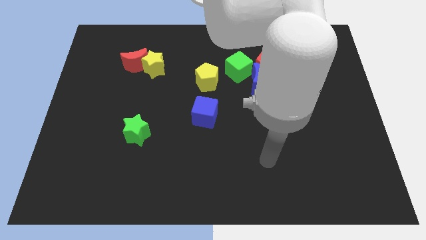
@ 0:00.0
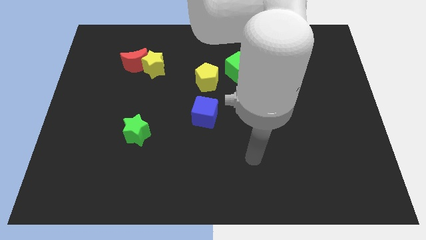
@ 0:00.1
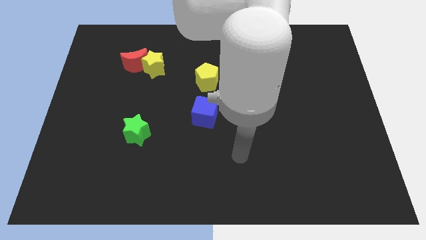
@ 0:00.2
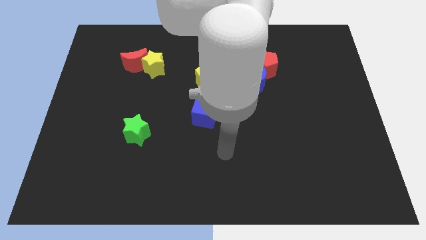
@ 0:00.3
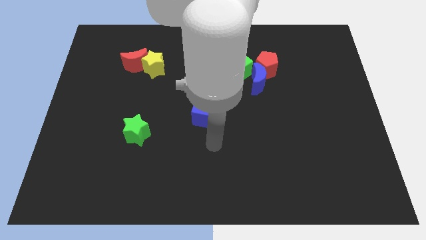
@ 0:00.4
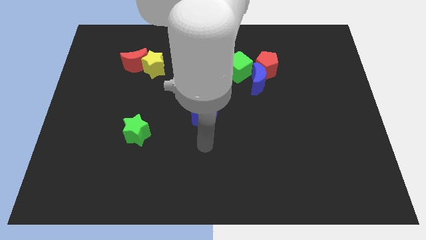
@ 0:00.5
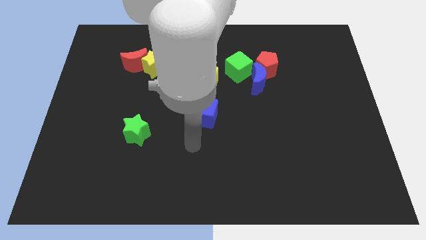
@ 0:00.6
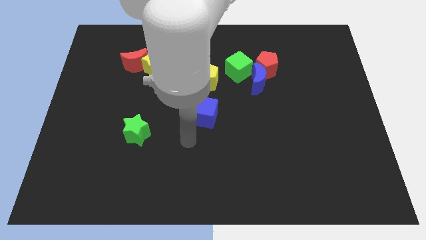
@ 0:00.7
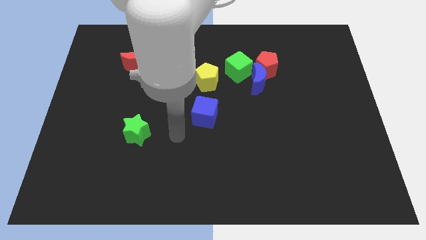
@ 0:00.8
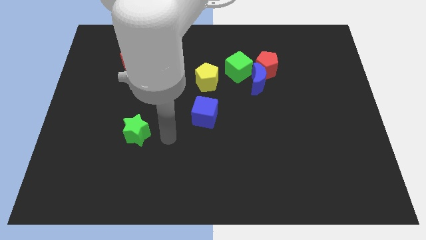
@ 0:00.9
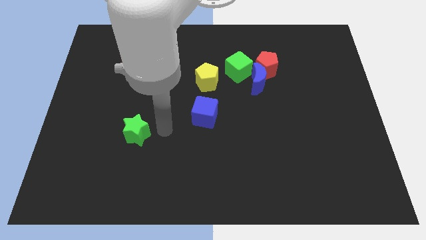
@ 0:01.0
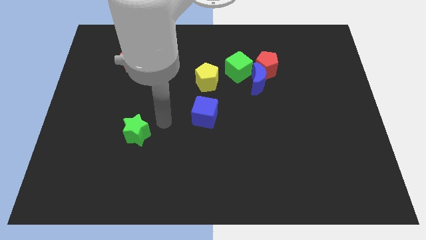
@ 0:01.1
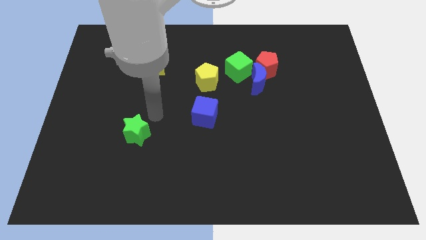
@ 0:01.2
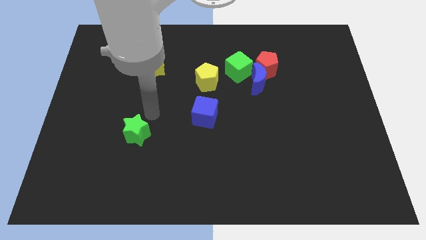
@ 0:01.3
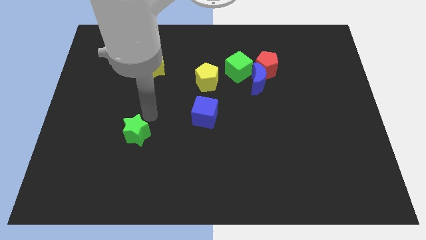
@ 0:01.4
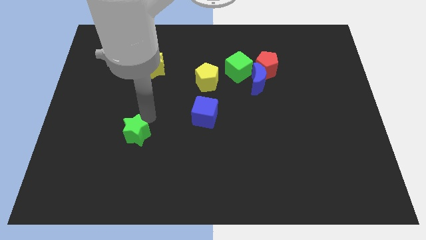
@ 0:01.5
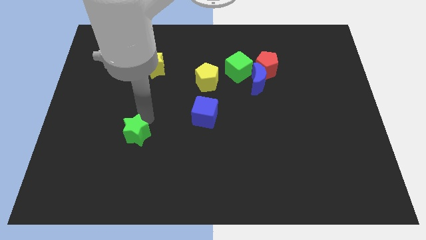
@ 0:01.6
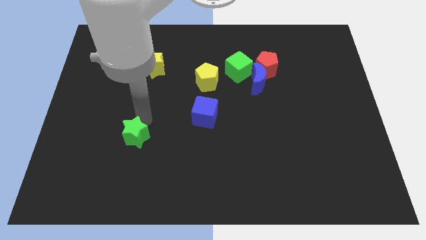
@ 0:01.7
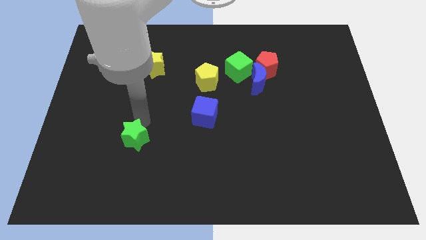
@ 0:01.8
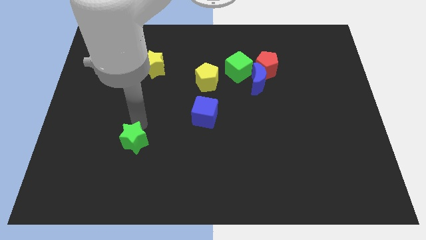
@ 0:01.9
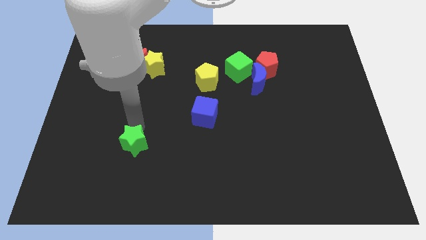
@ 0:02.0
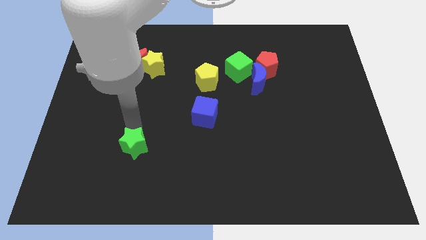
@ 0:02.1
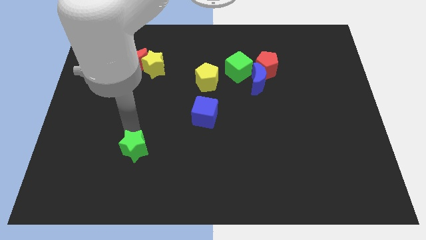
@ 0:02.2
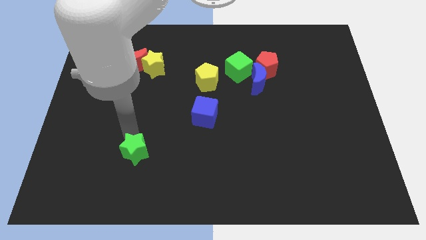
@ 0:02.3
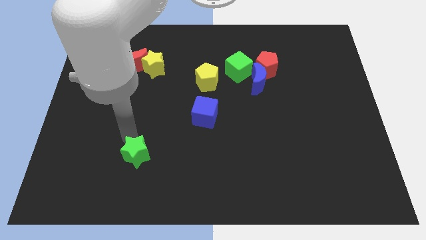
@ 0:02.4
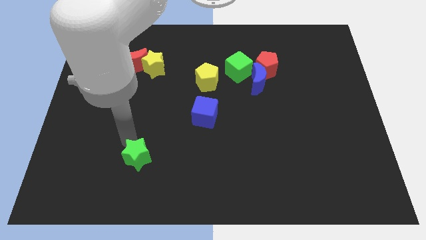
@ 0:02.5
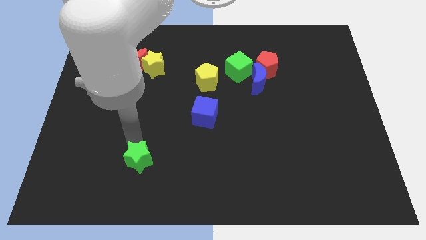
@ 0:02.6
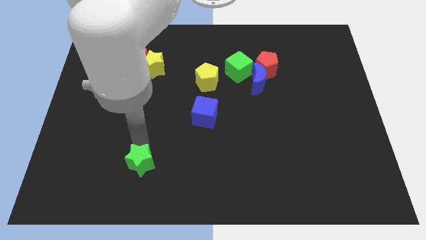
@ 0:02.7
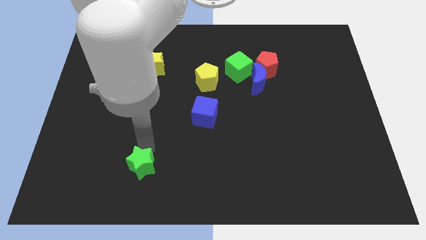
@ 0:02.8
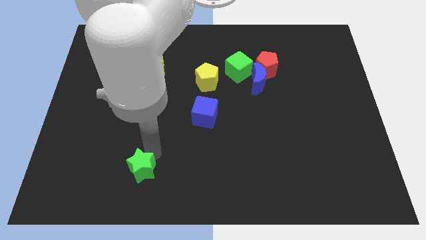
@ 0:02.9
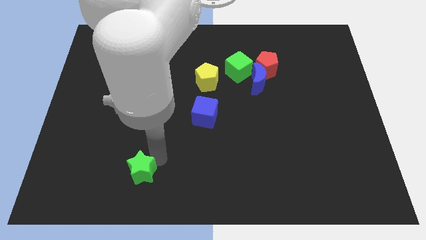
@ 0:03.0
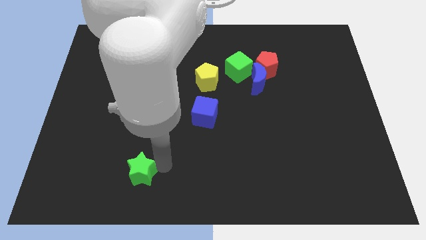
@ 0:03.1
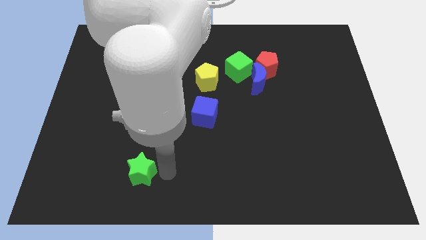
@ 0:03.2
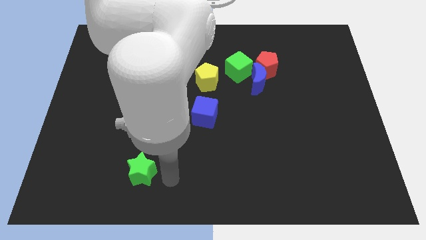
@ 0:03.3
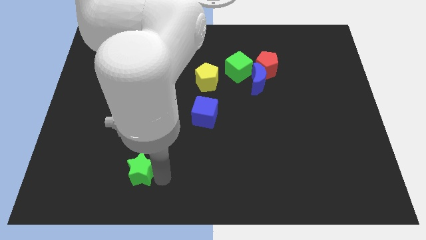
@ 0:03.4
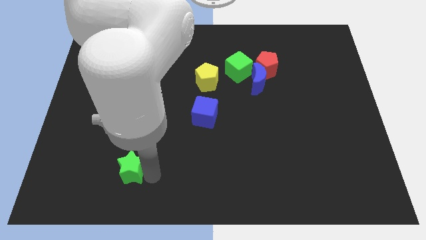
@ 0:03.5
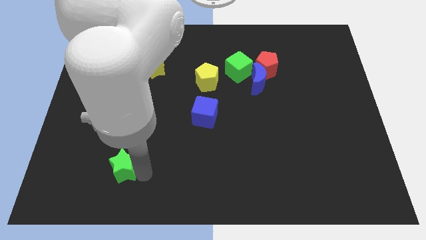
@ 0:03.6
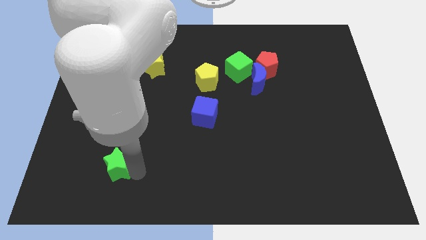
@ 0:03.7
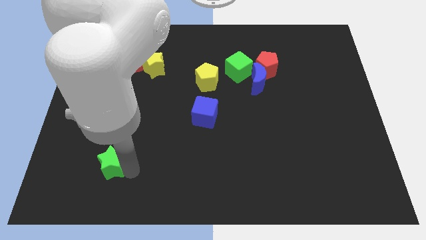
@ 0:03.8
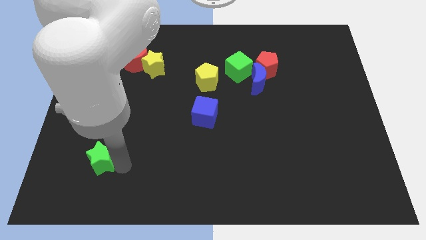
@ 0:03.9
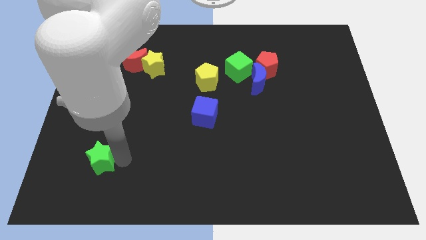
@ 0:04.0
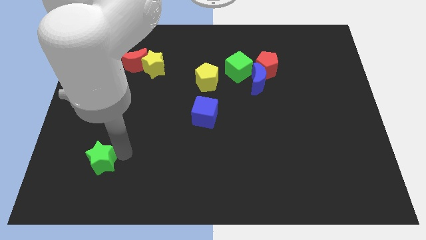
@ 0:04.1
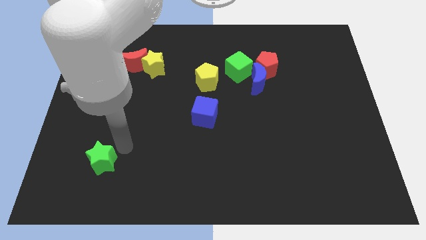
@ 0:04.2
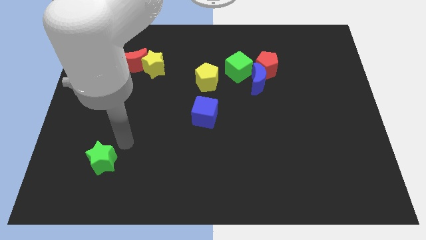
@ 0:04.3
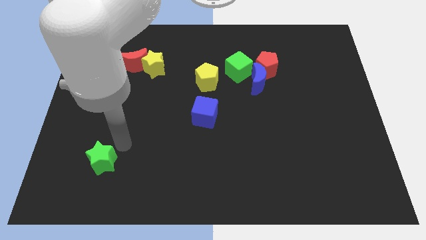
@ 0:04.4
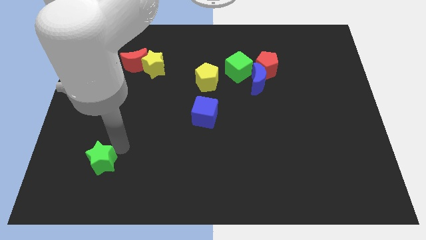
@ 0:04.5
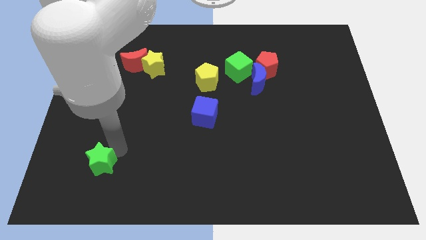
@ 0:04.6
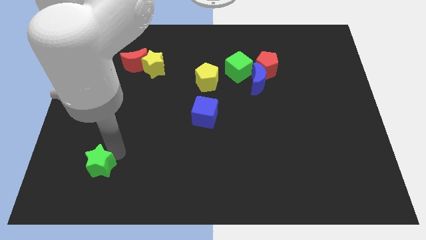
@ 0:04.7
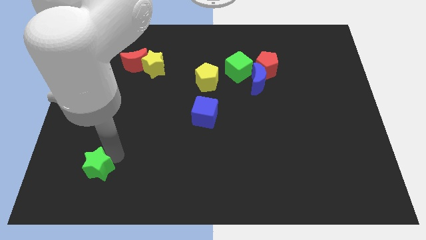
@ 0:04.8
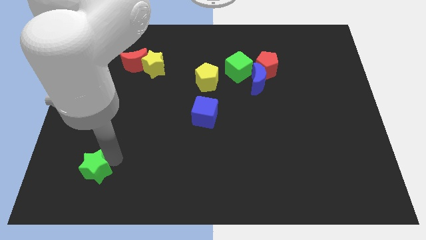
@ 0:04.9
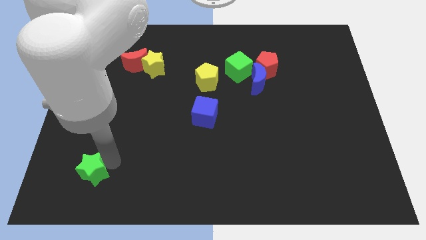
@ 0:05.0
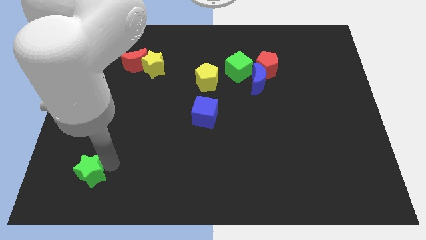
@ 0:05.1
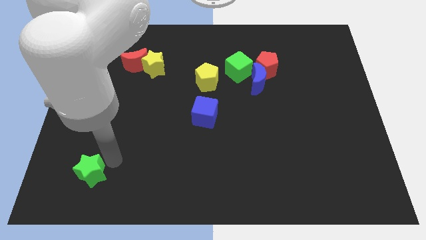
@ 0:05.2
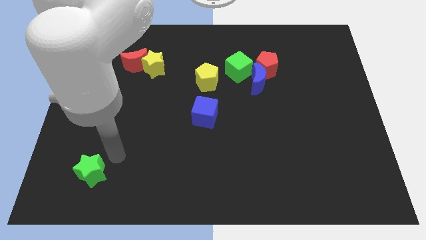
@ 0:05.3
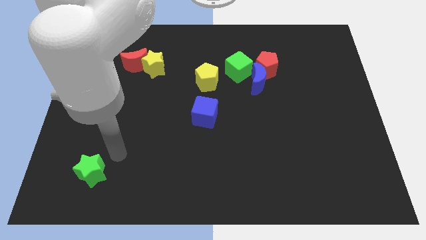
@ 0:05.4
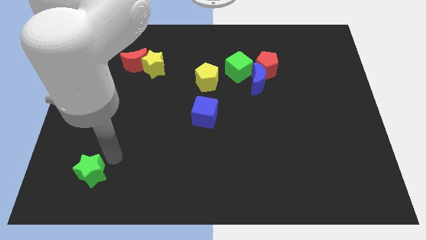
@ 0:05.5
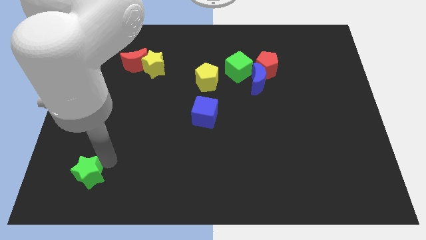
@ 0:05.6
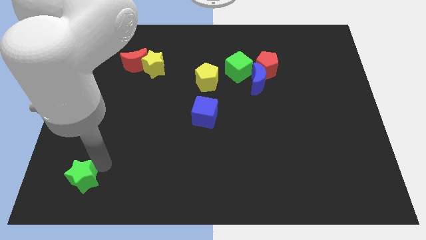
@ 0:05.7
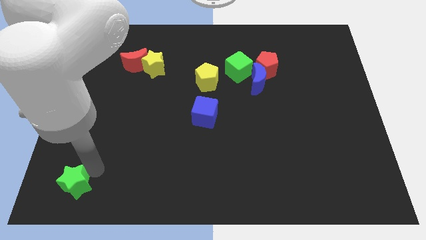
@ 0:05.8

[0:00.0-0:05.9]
push the green star to the bottom left

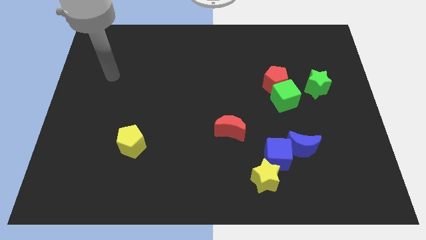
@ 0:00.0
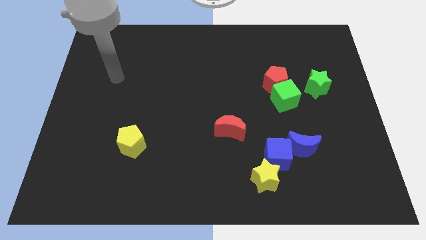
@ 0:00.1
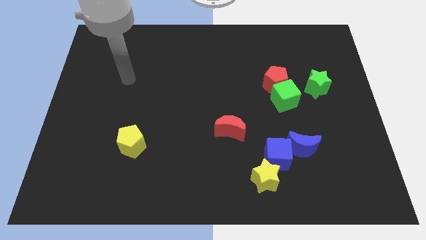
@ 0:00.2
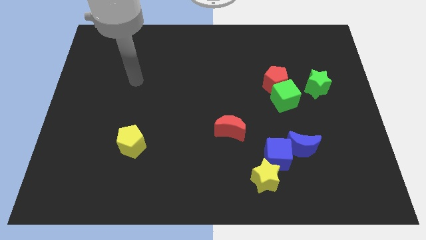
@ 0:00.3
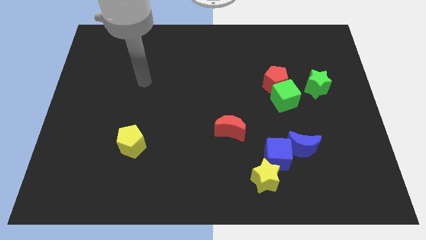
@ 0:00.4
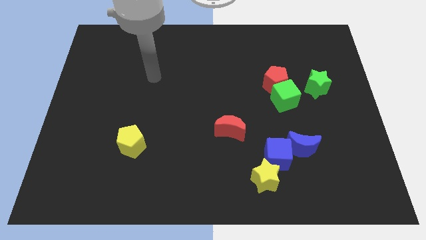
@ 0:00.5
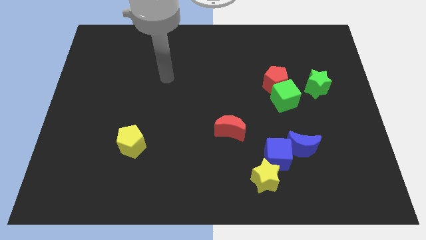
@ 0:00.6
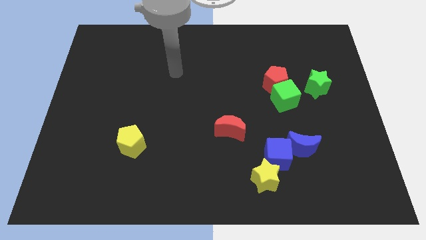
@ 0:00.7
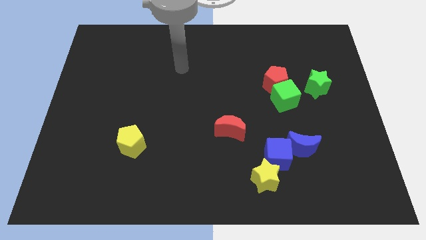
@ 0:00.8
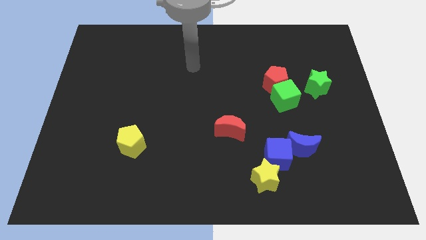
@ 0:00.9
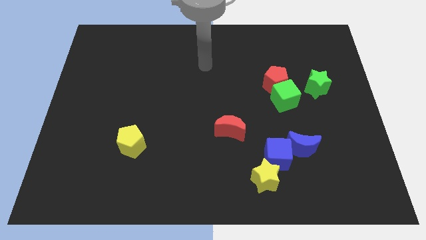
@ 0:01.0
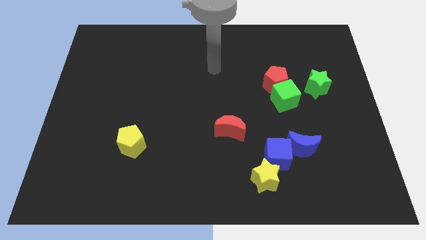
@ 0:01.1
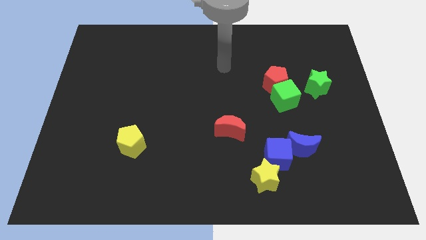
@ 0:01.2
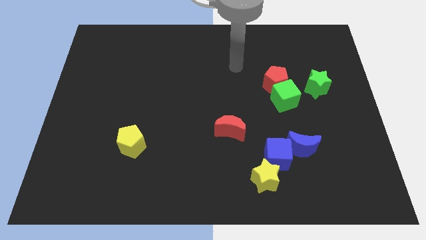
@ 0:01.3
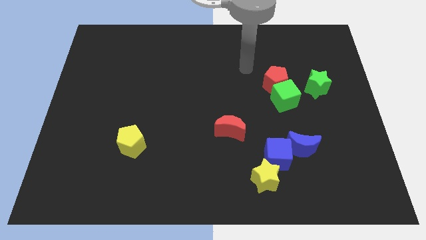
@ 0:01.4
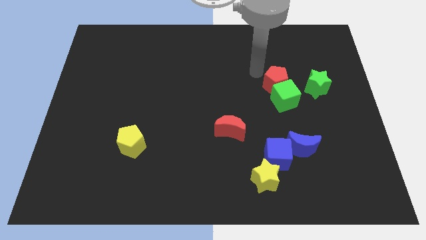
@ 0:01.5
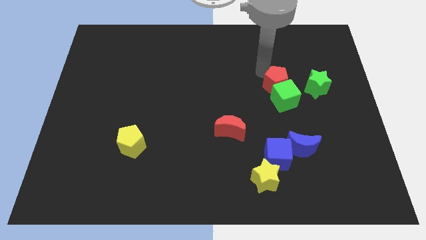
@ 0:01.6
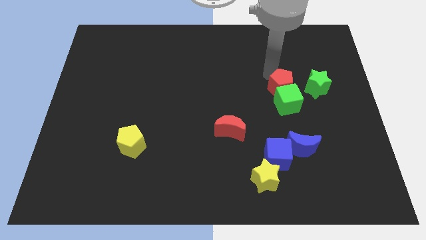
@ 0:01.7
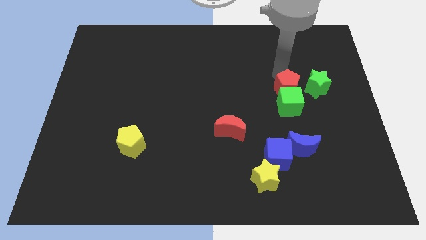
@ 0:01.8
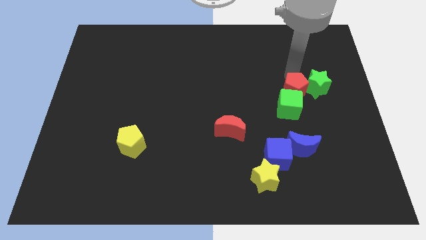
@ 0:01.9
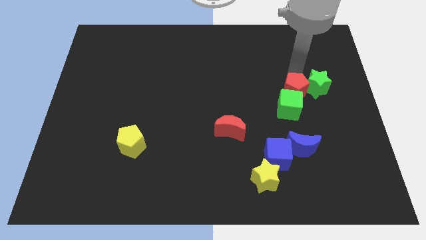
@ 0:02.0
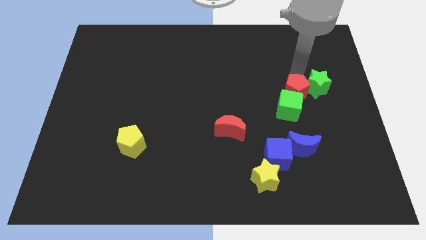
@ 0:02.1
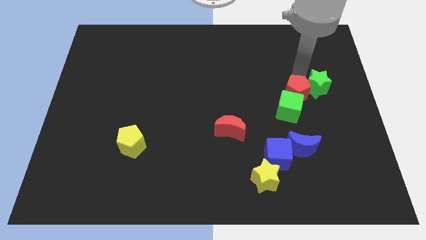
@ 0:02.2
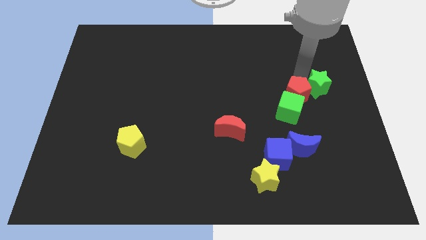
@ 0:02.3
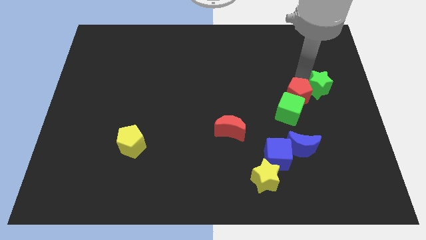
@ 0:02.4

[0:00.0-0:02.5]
move the green star to the right side
